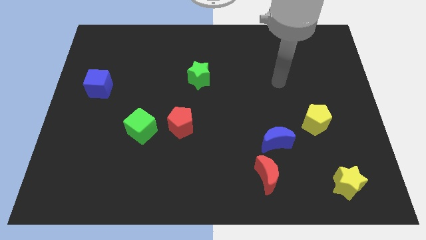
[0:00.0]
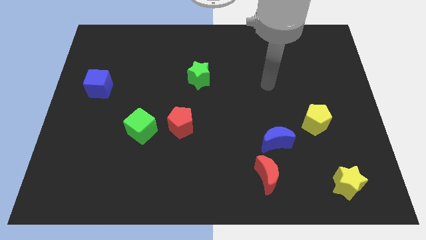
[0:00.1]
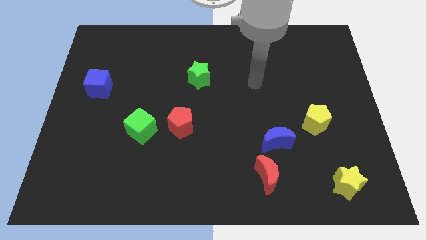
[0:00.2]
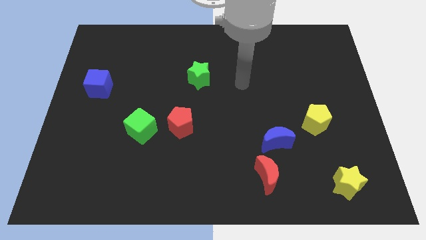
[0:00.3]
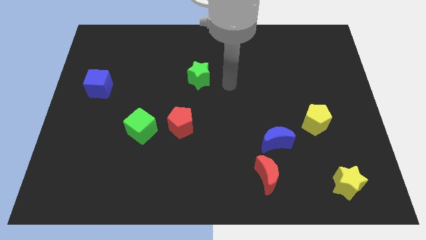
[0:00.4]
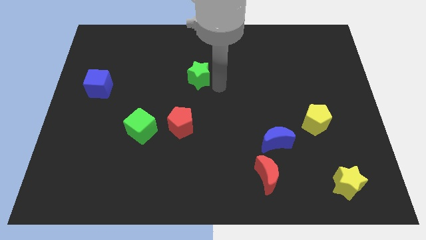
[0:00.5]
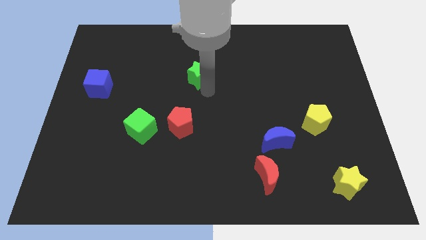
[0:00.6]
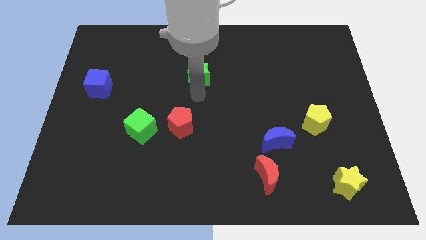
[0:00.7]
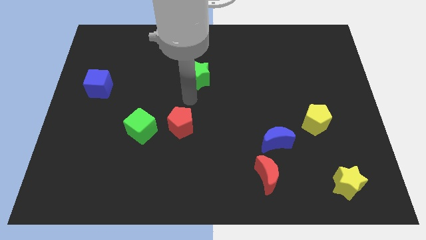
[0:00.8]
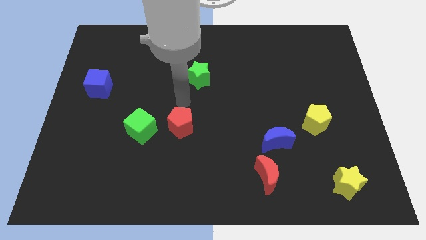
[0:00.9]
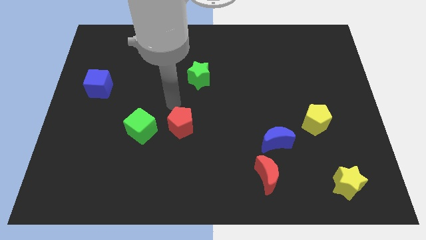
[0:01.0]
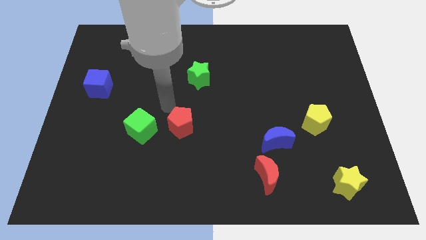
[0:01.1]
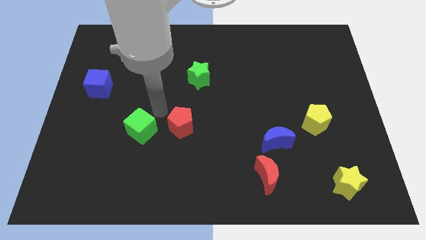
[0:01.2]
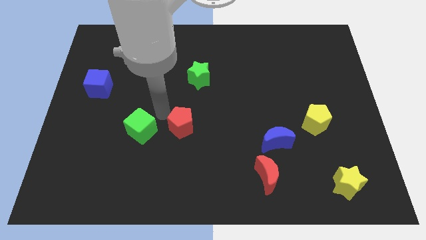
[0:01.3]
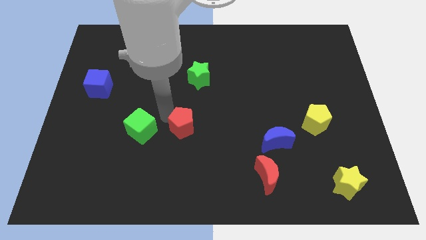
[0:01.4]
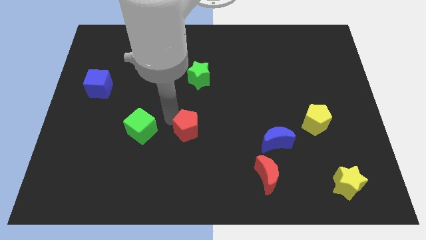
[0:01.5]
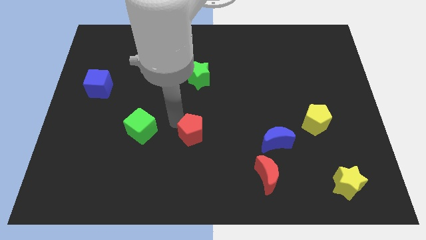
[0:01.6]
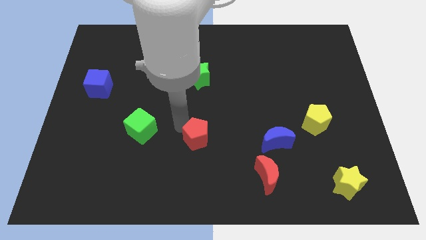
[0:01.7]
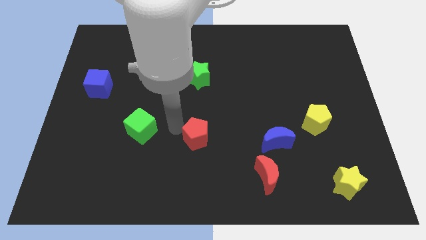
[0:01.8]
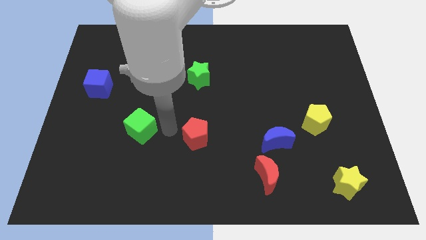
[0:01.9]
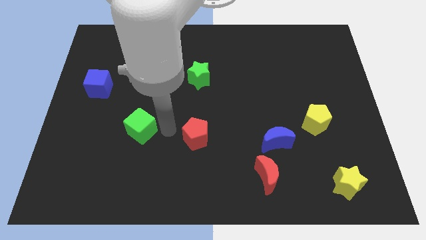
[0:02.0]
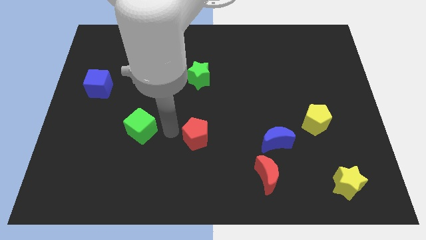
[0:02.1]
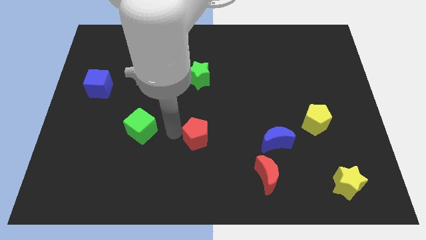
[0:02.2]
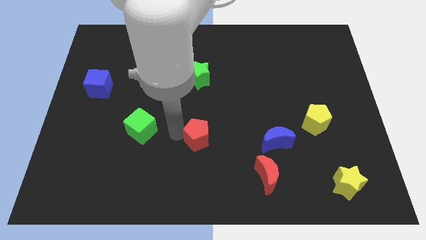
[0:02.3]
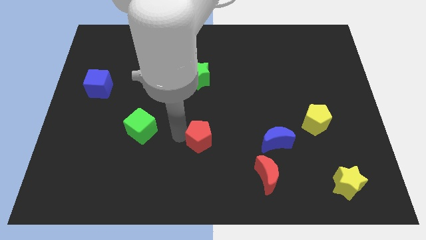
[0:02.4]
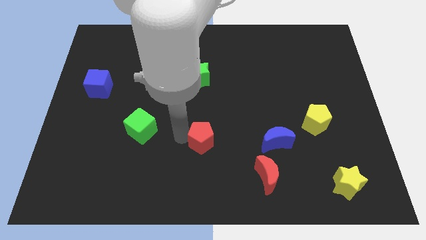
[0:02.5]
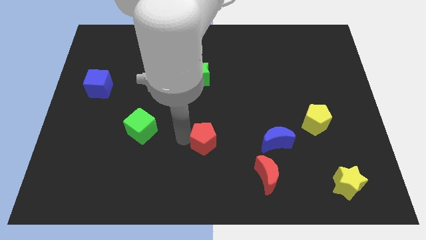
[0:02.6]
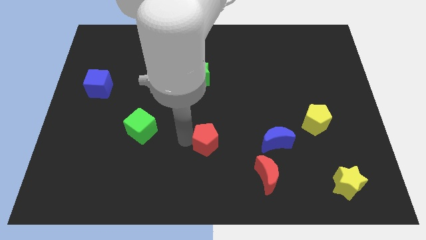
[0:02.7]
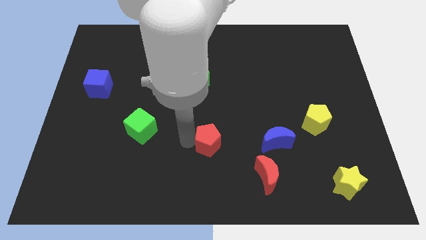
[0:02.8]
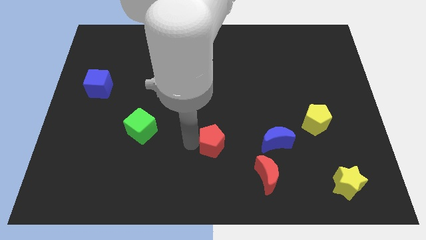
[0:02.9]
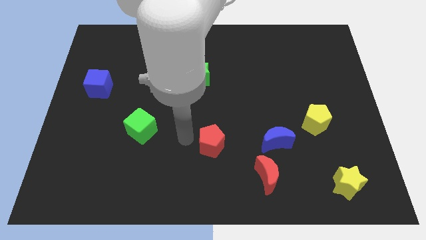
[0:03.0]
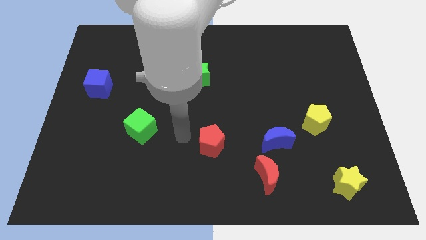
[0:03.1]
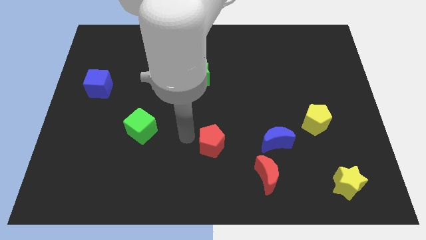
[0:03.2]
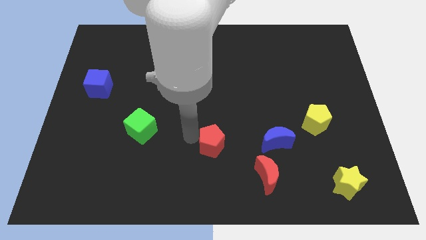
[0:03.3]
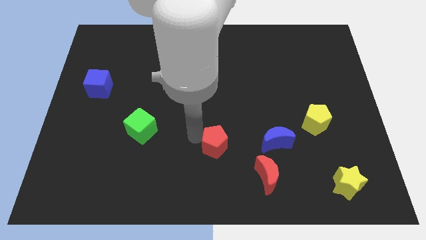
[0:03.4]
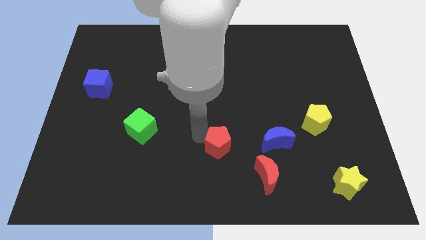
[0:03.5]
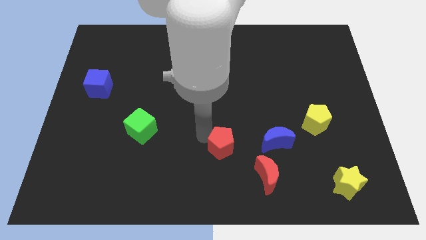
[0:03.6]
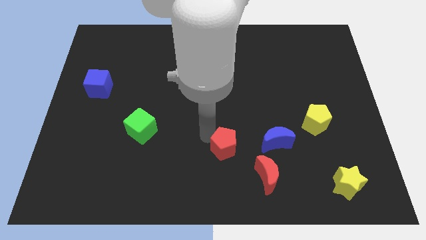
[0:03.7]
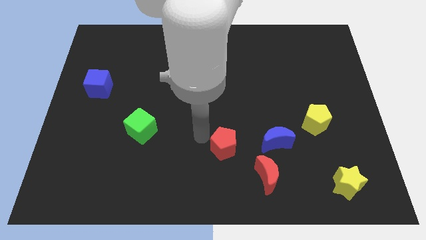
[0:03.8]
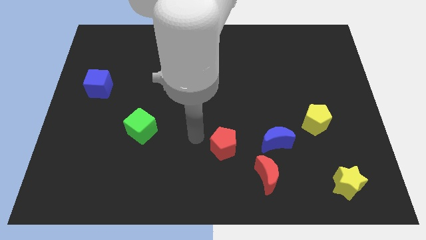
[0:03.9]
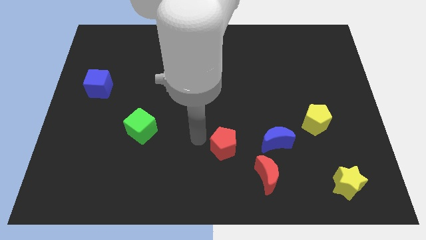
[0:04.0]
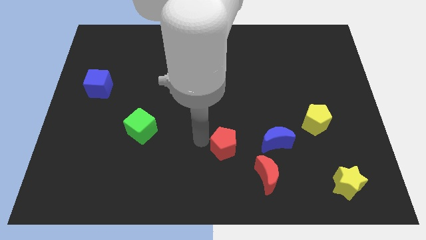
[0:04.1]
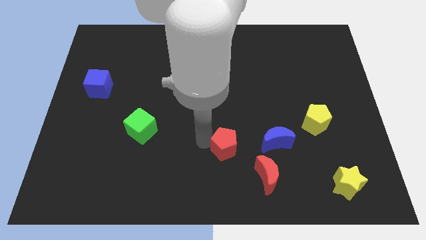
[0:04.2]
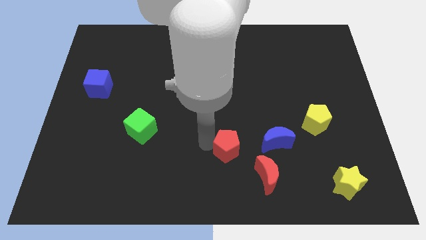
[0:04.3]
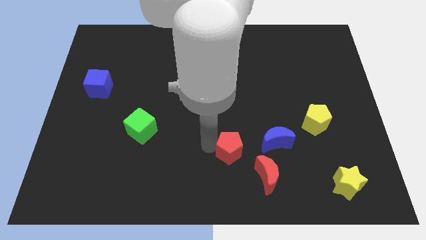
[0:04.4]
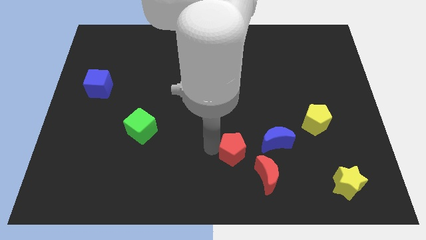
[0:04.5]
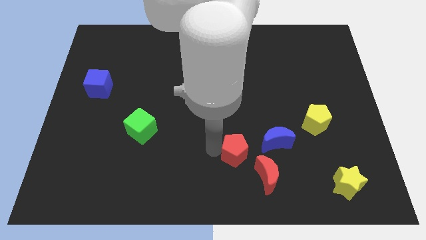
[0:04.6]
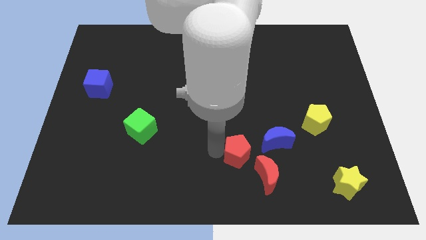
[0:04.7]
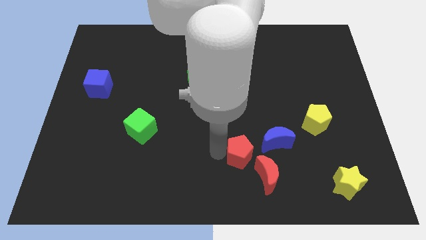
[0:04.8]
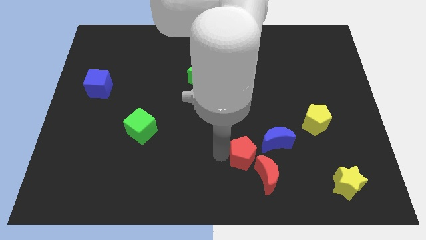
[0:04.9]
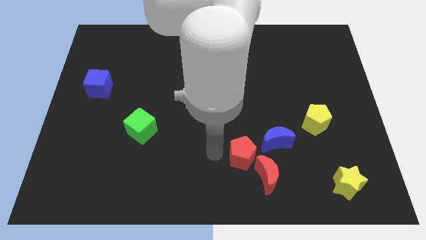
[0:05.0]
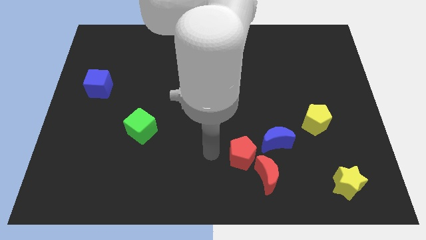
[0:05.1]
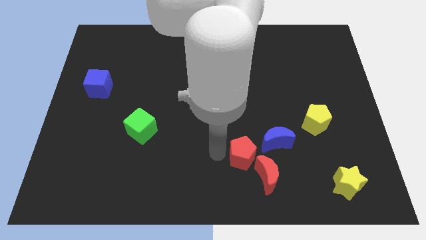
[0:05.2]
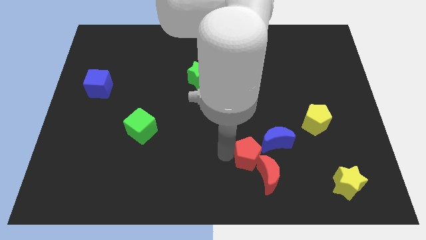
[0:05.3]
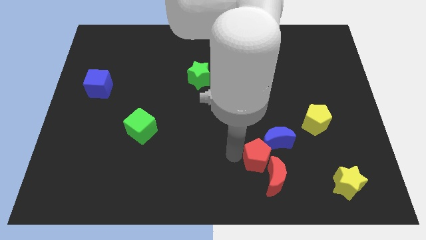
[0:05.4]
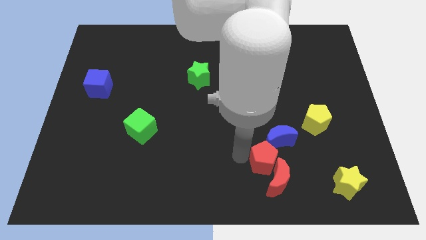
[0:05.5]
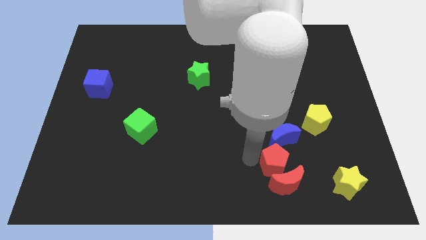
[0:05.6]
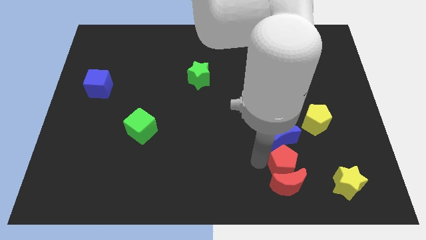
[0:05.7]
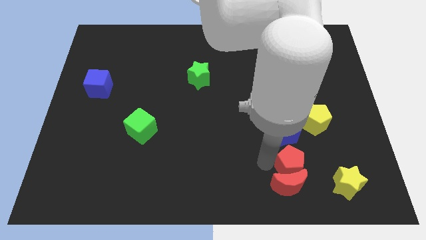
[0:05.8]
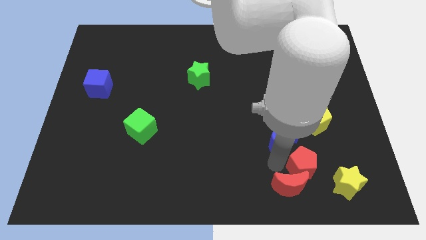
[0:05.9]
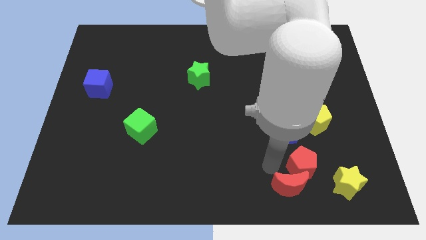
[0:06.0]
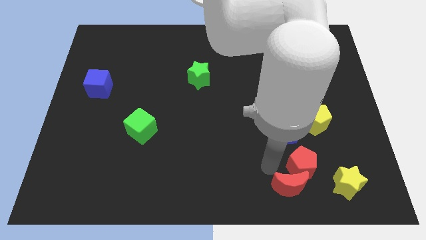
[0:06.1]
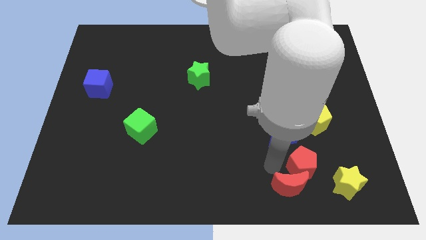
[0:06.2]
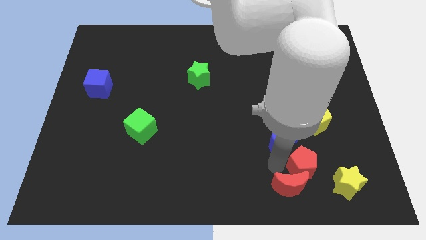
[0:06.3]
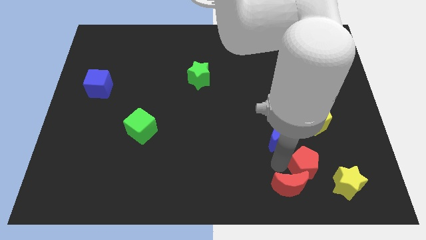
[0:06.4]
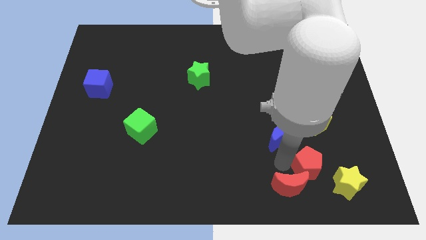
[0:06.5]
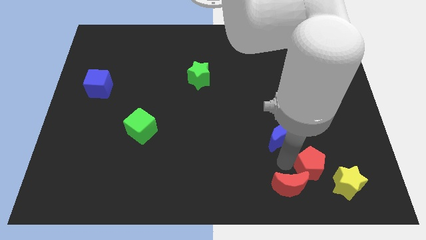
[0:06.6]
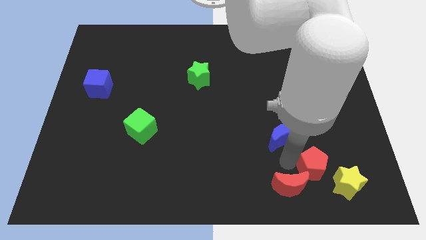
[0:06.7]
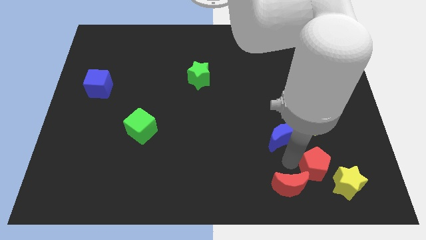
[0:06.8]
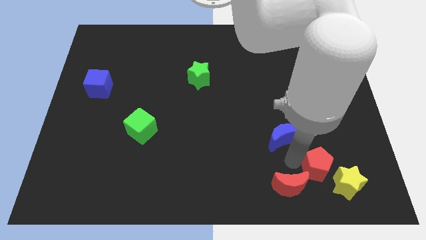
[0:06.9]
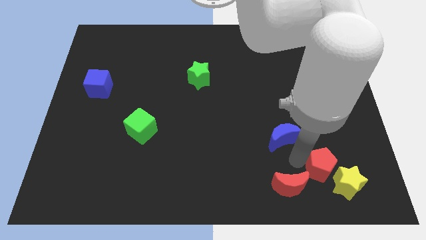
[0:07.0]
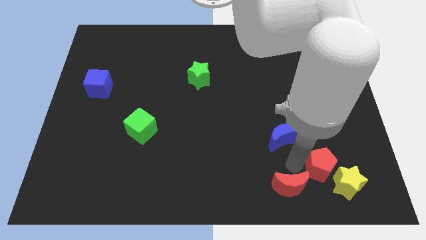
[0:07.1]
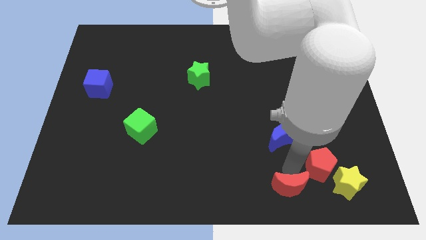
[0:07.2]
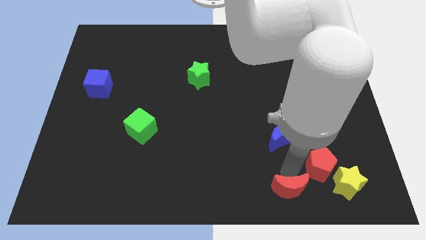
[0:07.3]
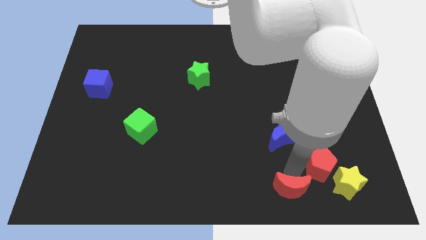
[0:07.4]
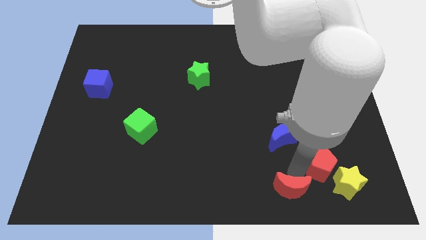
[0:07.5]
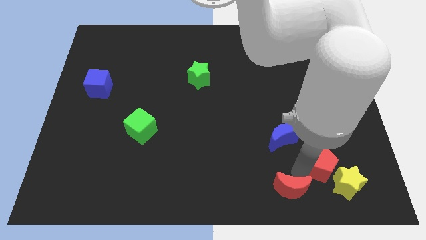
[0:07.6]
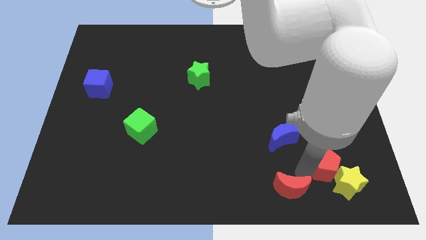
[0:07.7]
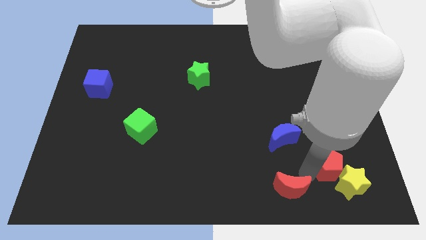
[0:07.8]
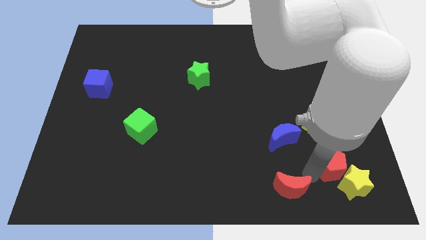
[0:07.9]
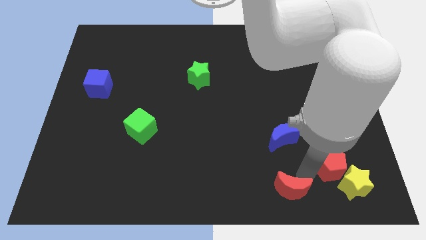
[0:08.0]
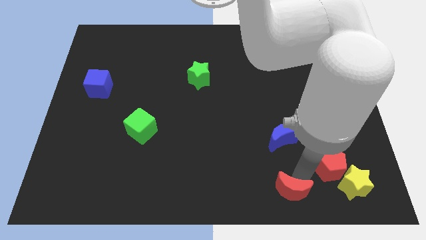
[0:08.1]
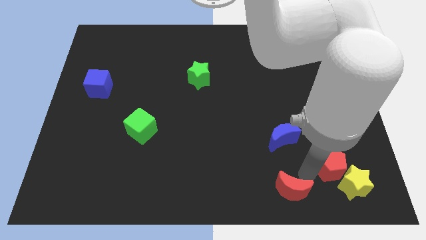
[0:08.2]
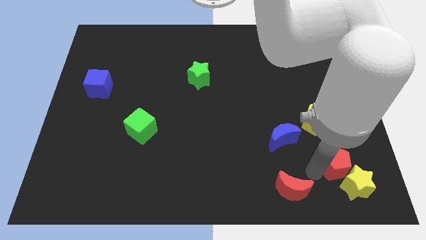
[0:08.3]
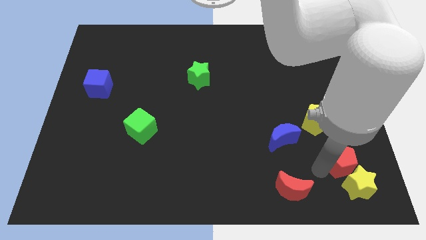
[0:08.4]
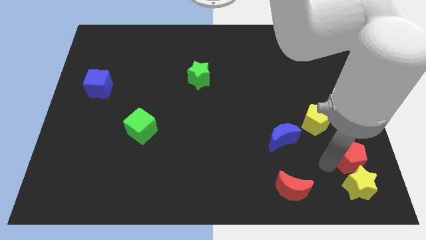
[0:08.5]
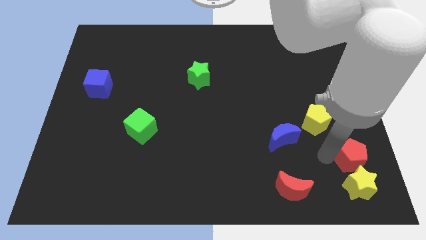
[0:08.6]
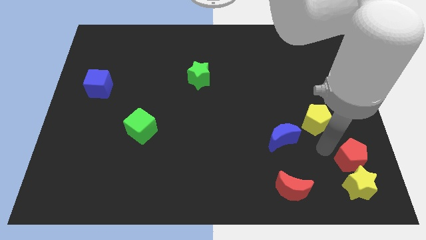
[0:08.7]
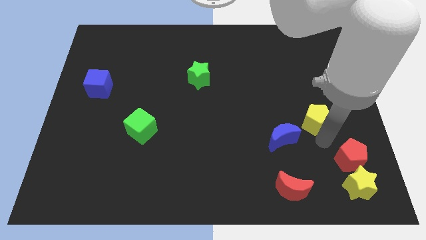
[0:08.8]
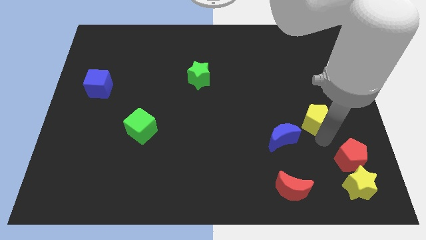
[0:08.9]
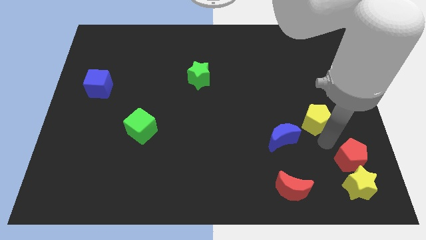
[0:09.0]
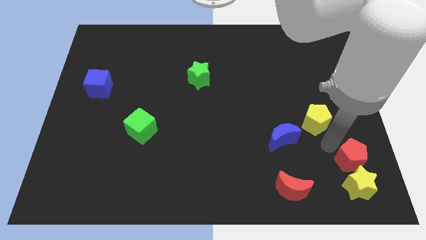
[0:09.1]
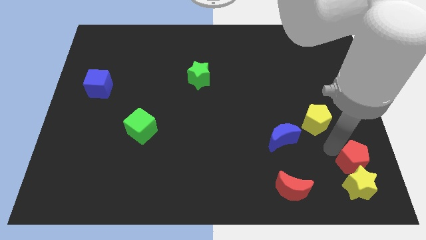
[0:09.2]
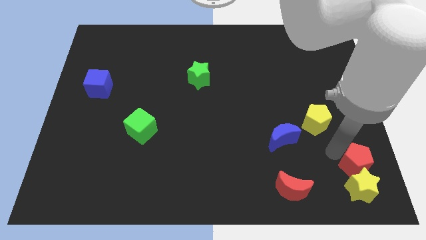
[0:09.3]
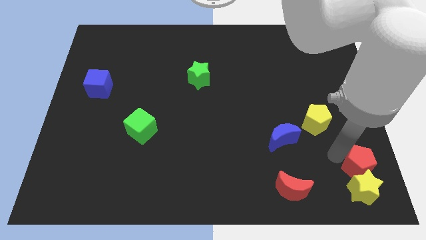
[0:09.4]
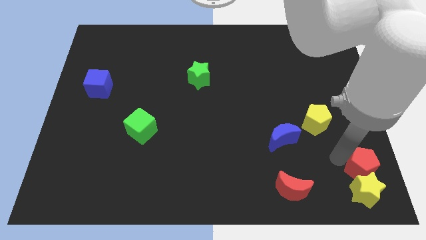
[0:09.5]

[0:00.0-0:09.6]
put the red pentagon to the lower right corner
